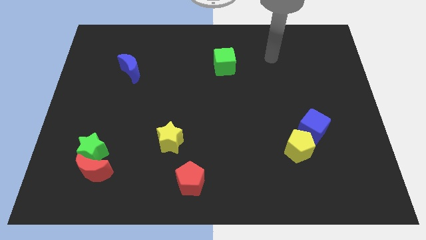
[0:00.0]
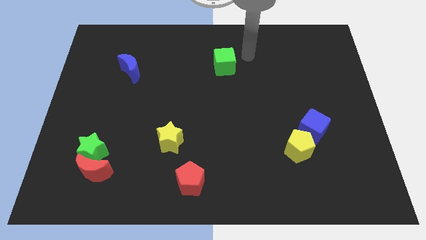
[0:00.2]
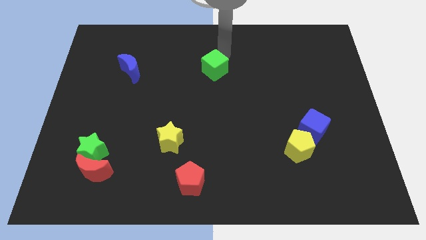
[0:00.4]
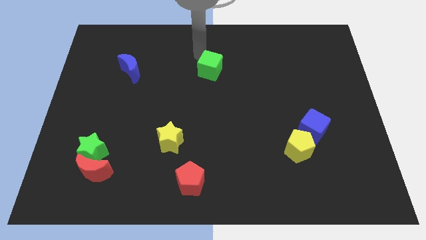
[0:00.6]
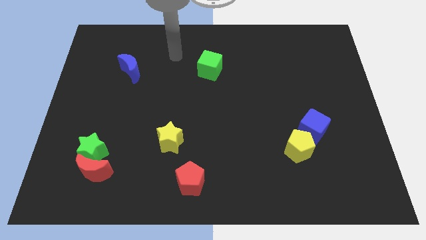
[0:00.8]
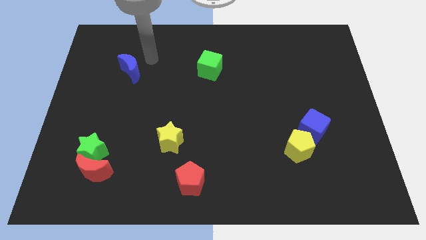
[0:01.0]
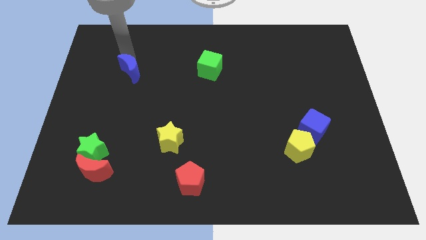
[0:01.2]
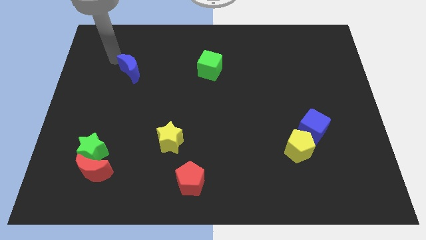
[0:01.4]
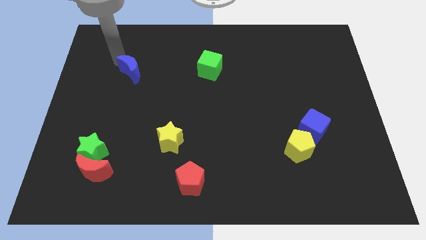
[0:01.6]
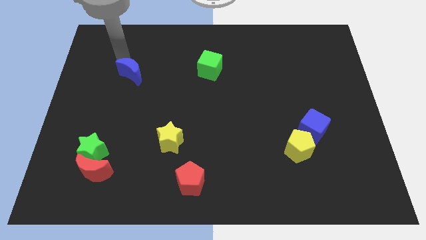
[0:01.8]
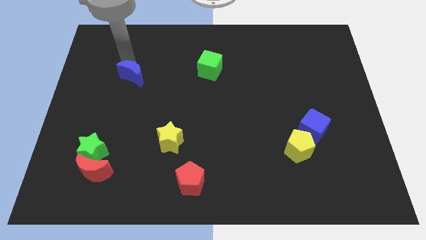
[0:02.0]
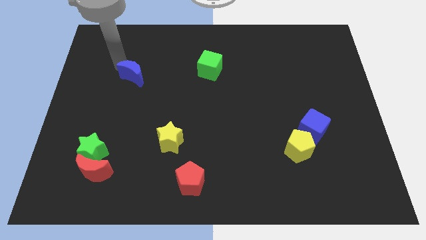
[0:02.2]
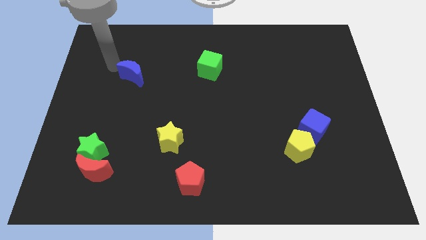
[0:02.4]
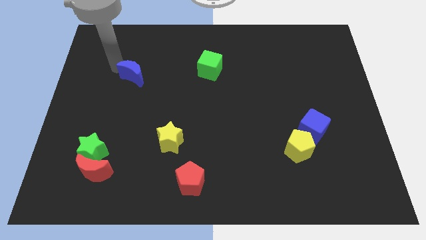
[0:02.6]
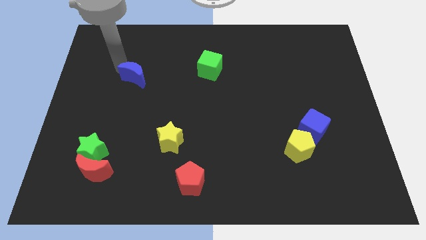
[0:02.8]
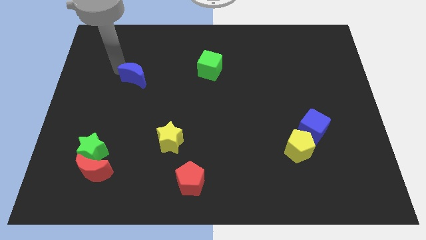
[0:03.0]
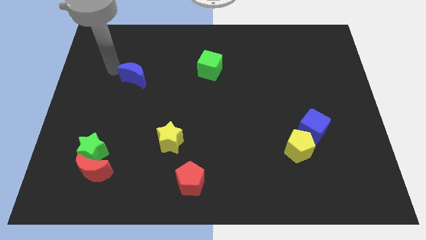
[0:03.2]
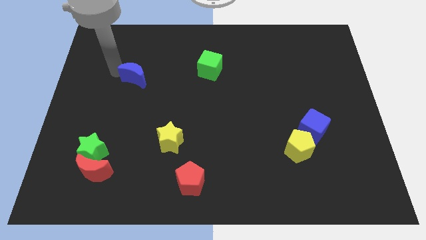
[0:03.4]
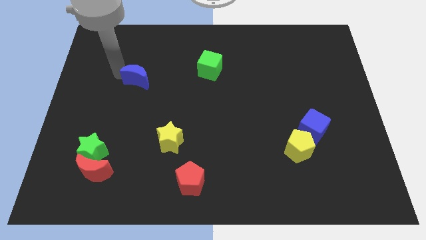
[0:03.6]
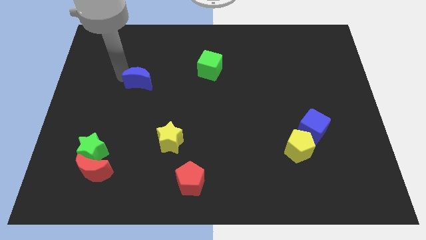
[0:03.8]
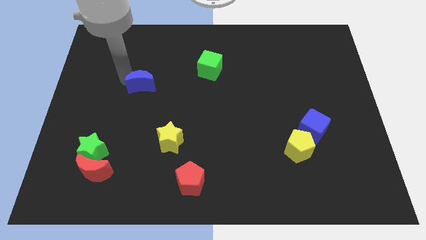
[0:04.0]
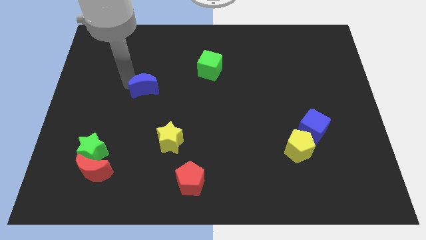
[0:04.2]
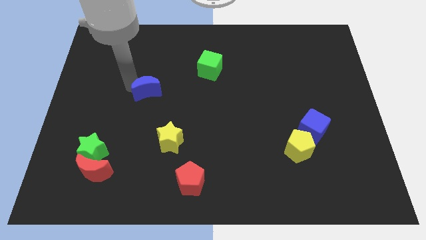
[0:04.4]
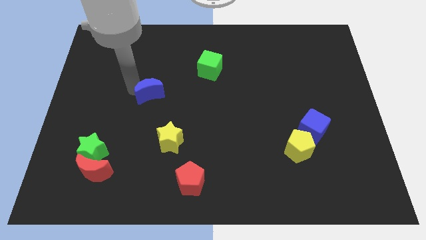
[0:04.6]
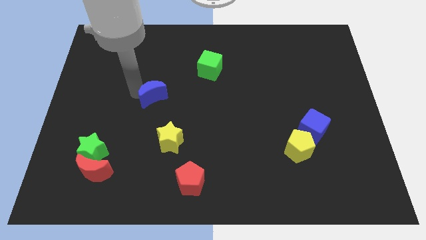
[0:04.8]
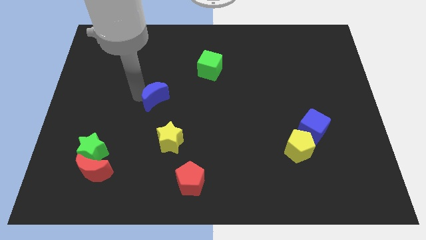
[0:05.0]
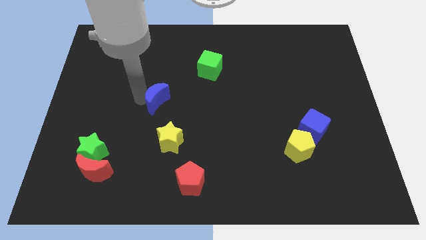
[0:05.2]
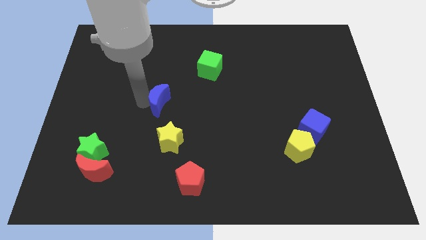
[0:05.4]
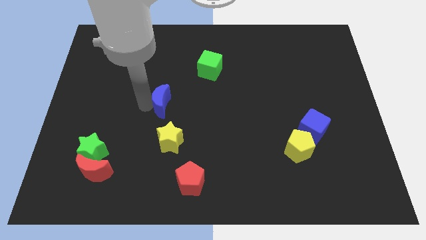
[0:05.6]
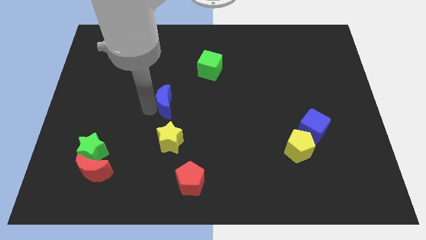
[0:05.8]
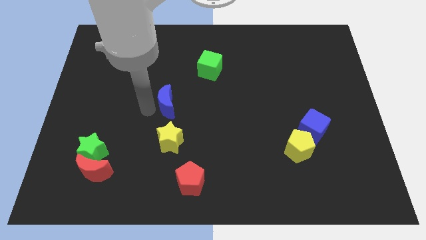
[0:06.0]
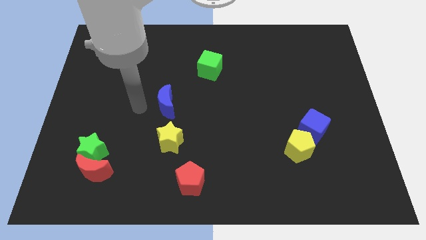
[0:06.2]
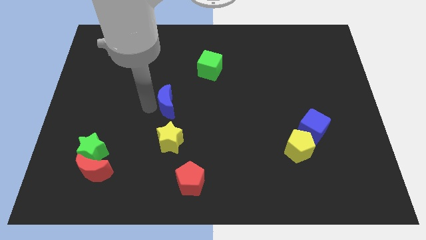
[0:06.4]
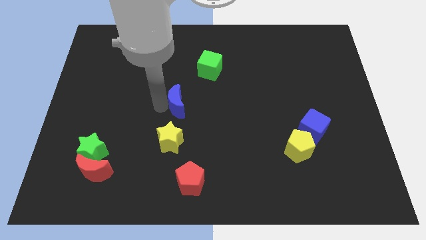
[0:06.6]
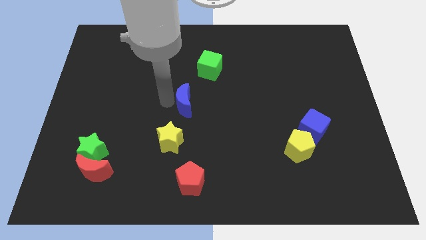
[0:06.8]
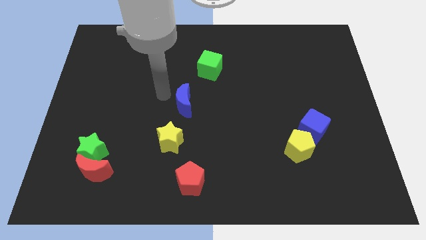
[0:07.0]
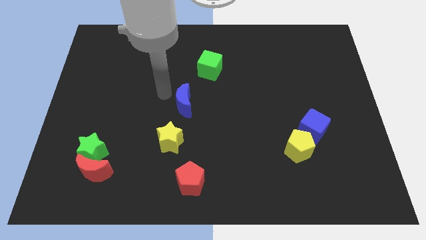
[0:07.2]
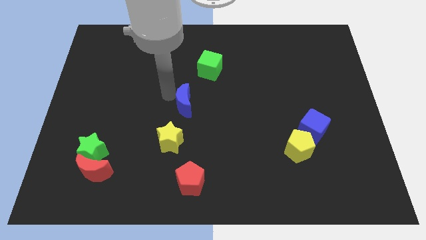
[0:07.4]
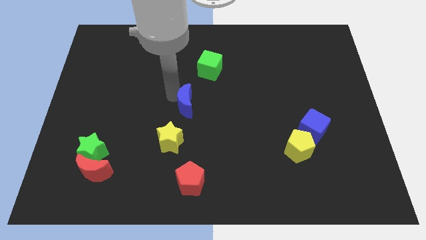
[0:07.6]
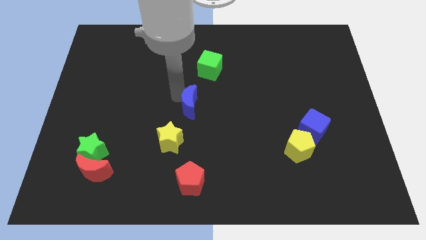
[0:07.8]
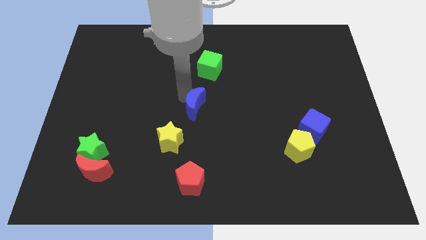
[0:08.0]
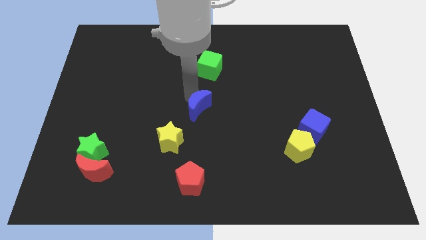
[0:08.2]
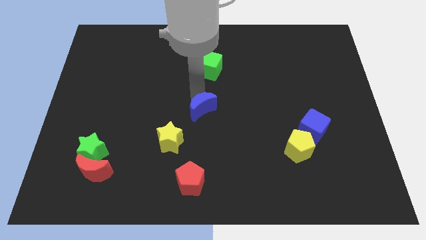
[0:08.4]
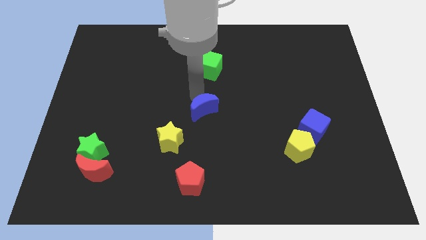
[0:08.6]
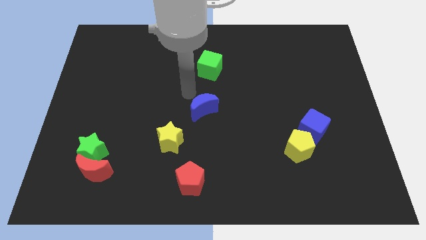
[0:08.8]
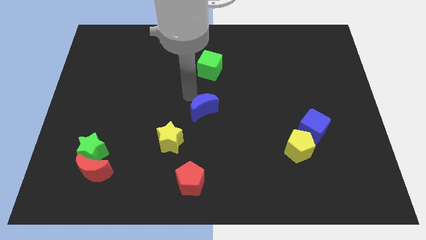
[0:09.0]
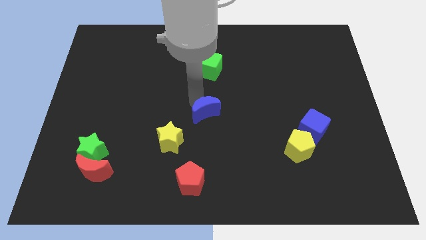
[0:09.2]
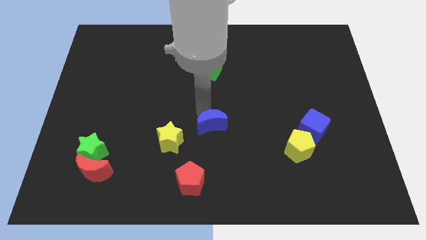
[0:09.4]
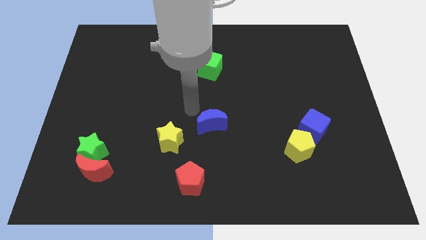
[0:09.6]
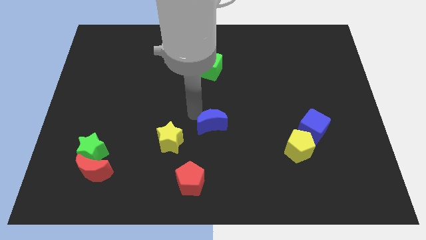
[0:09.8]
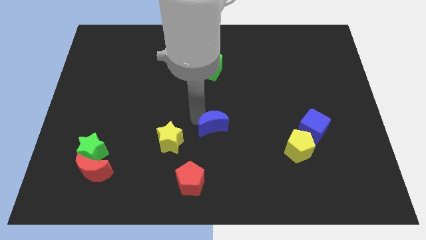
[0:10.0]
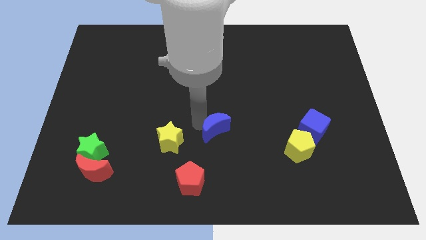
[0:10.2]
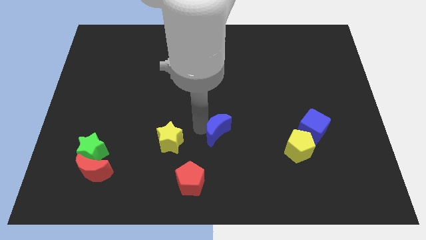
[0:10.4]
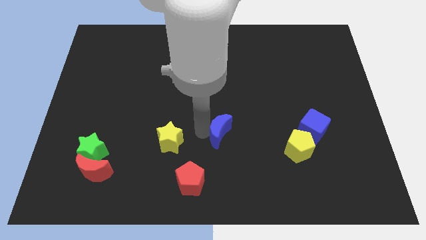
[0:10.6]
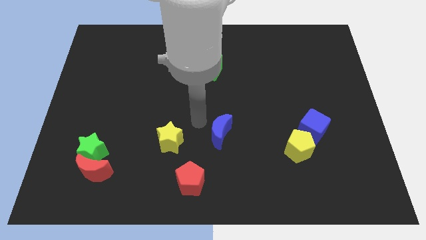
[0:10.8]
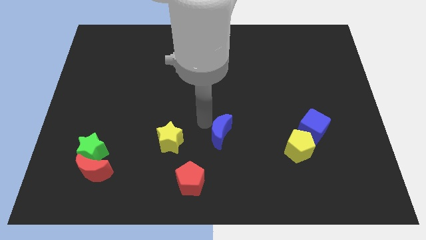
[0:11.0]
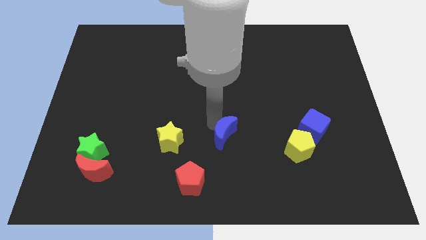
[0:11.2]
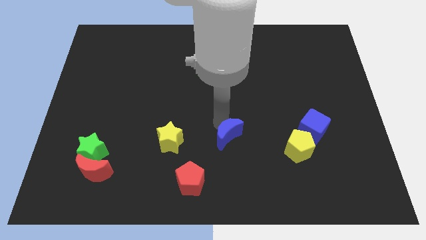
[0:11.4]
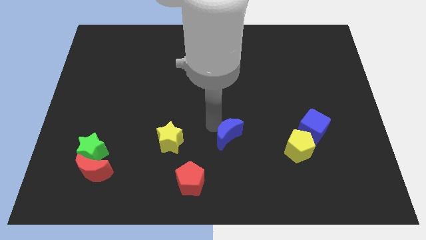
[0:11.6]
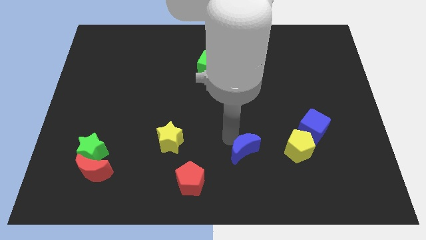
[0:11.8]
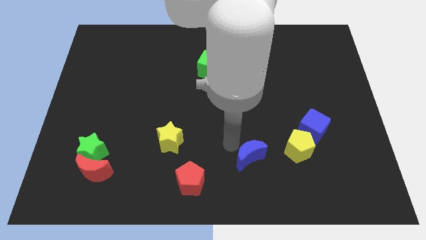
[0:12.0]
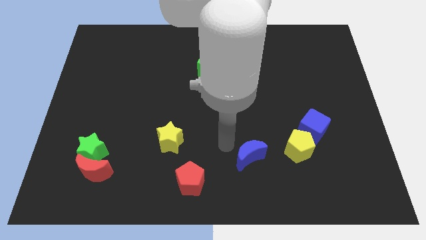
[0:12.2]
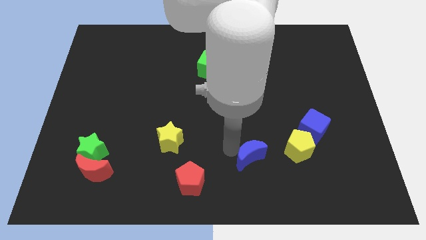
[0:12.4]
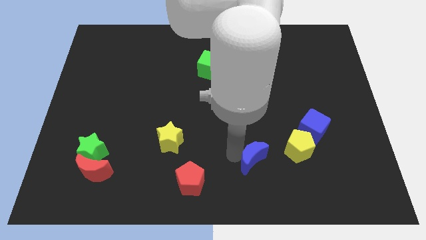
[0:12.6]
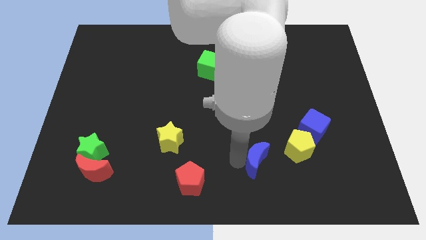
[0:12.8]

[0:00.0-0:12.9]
push the blue moon to the bottom left side of the yellow pentagon

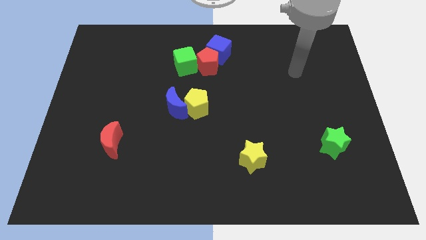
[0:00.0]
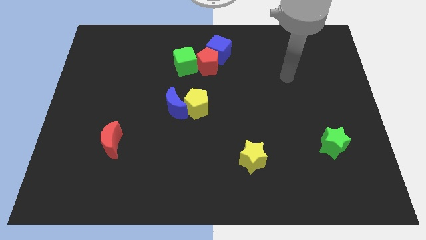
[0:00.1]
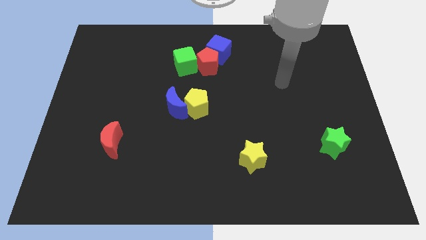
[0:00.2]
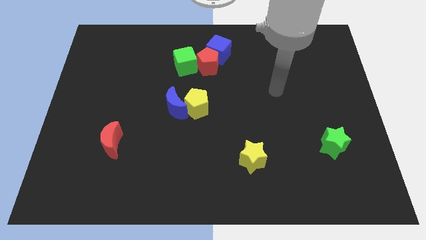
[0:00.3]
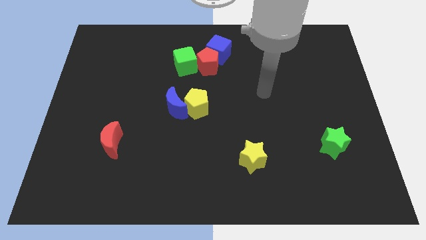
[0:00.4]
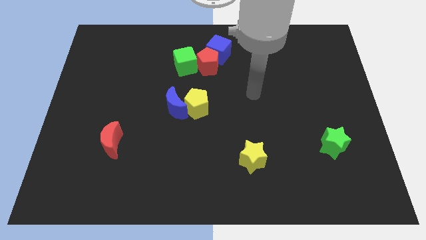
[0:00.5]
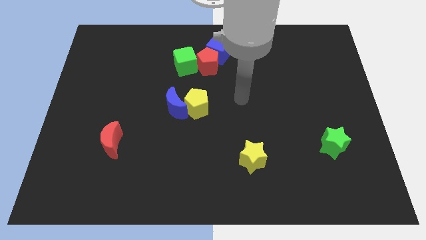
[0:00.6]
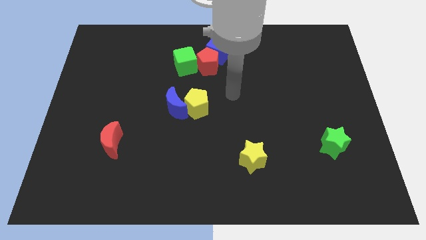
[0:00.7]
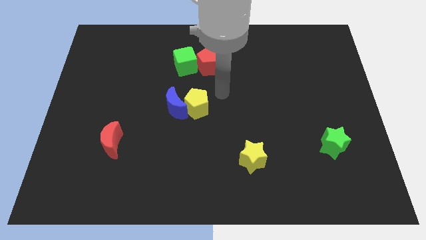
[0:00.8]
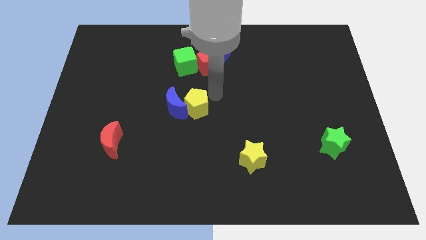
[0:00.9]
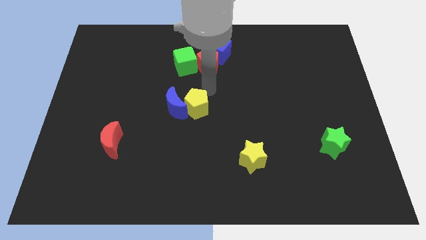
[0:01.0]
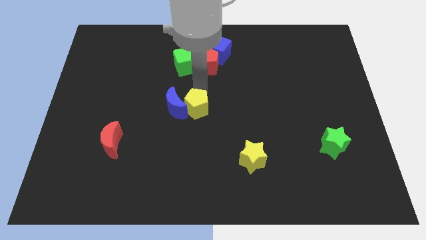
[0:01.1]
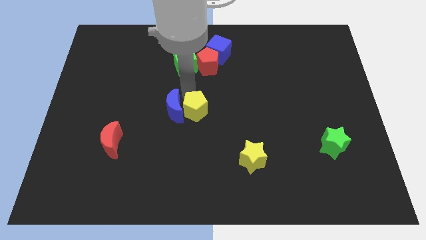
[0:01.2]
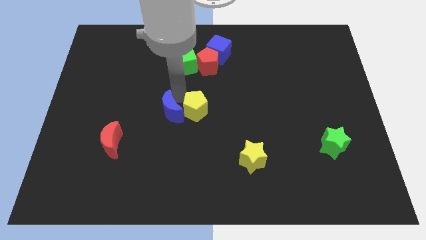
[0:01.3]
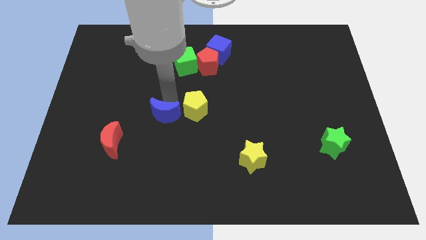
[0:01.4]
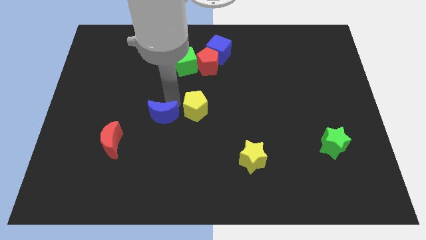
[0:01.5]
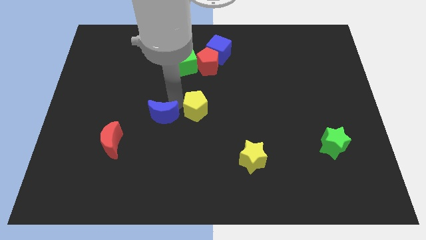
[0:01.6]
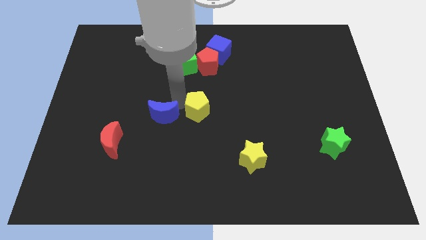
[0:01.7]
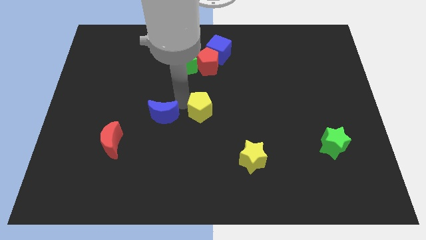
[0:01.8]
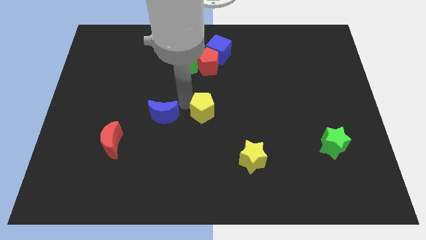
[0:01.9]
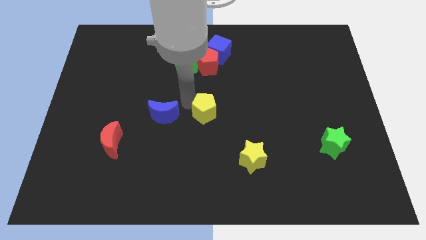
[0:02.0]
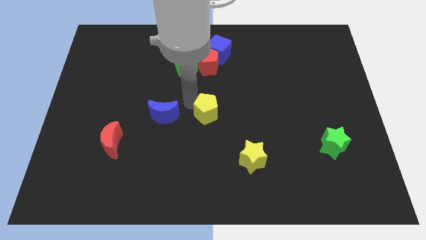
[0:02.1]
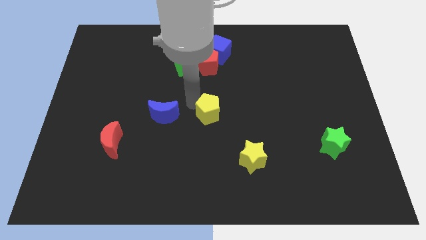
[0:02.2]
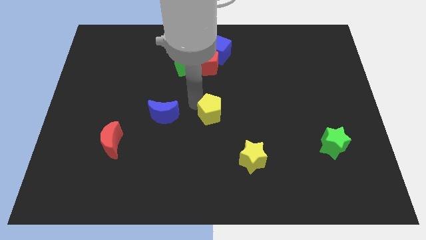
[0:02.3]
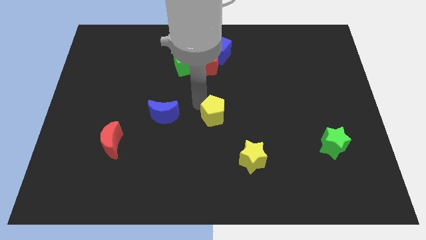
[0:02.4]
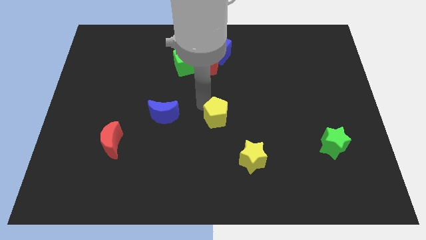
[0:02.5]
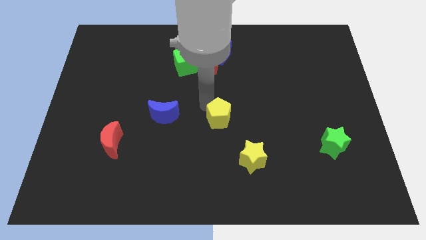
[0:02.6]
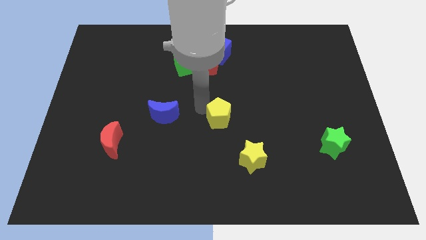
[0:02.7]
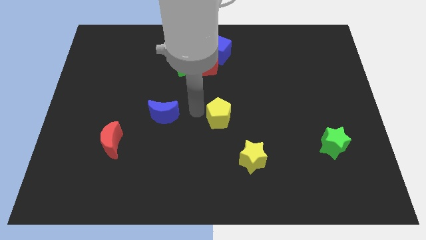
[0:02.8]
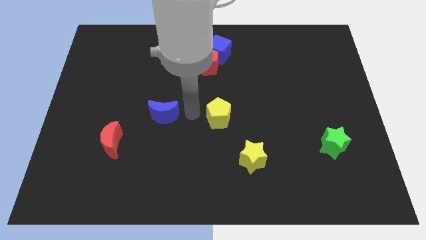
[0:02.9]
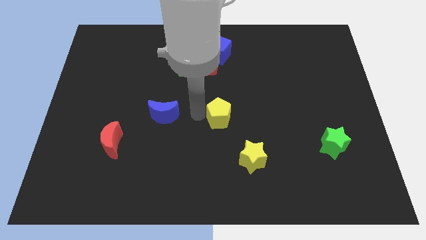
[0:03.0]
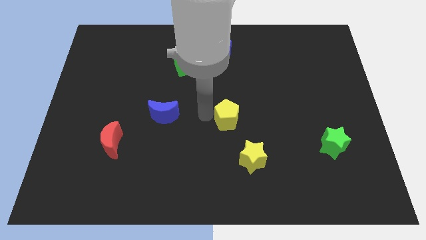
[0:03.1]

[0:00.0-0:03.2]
push the yellow pentagon above the yellow star
